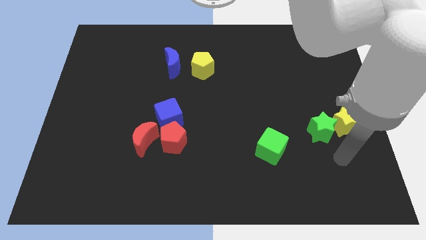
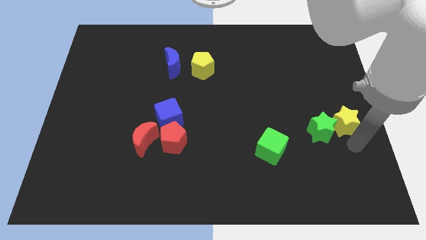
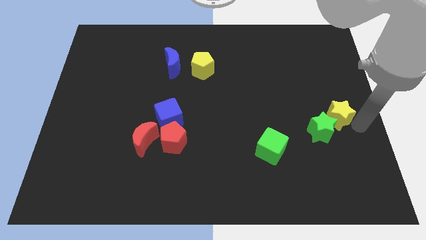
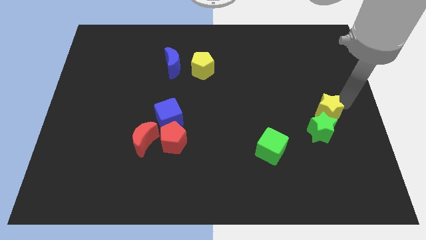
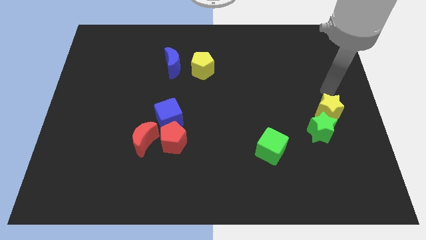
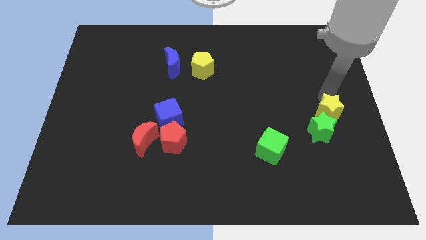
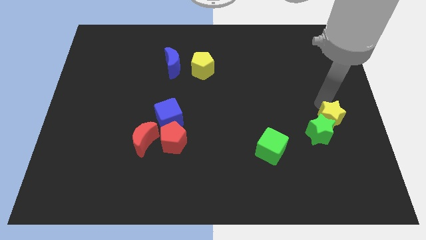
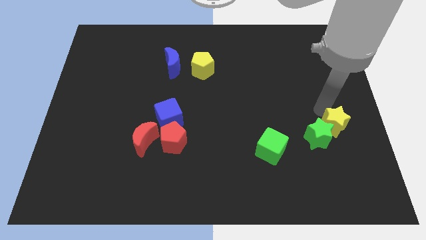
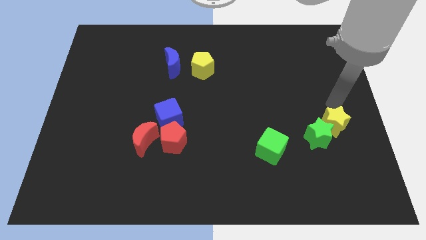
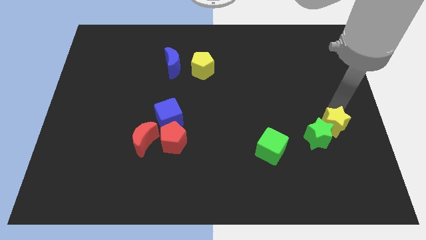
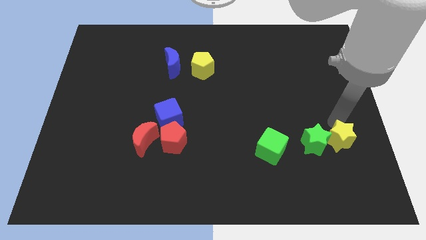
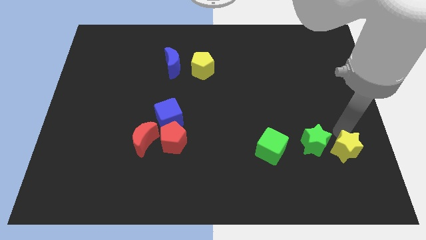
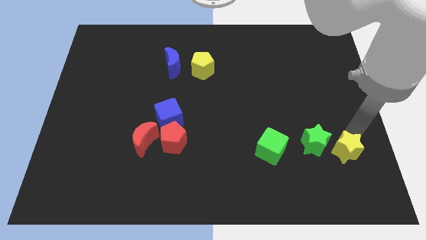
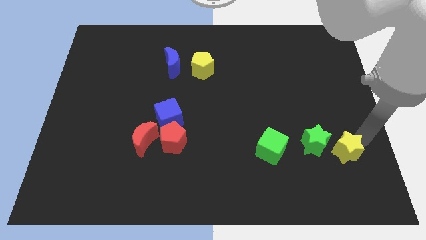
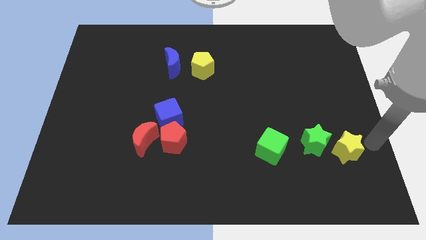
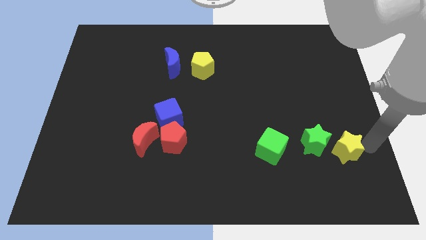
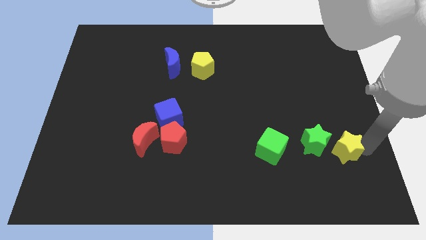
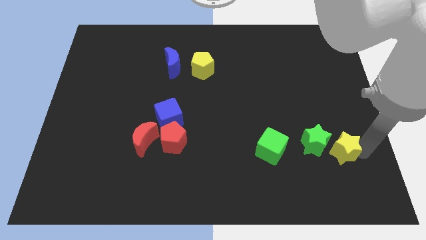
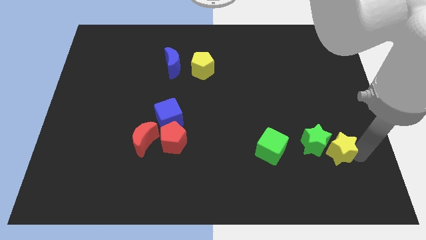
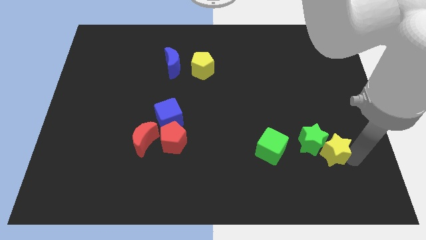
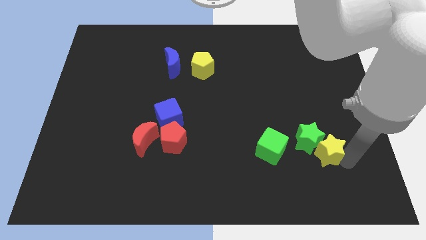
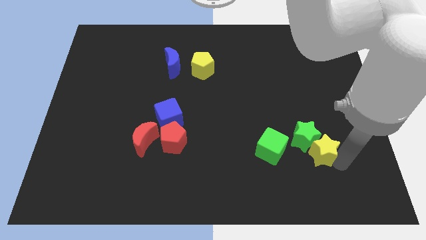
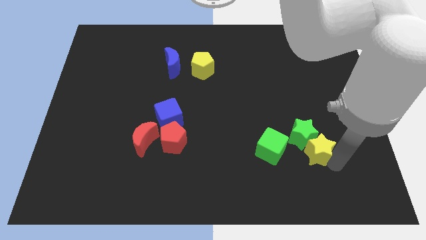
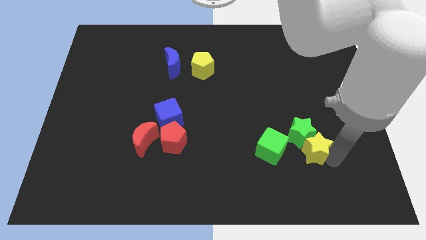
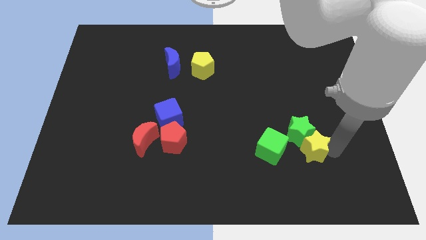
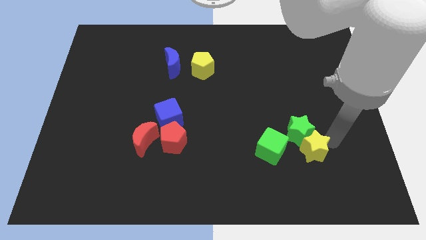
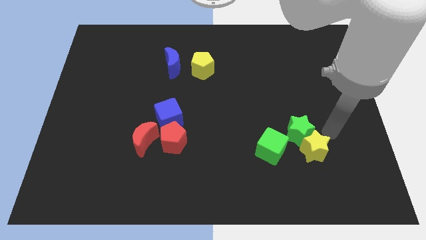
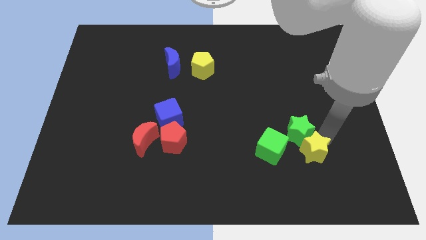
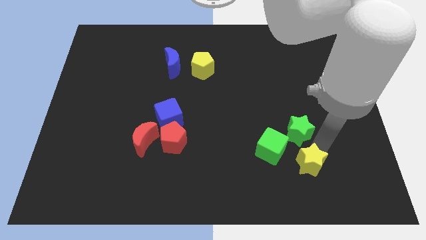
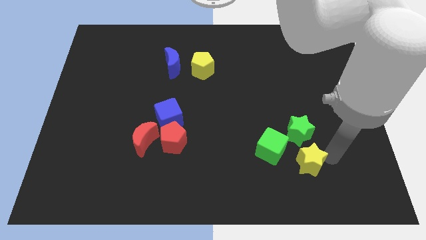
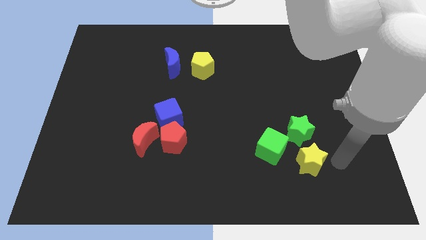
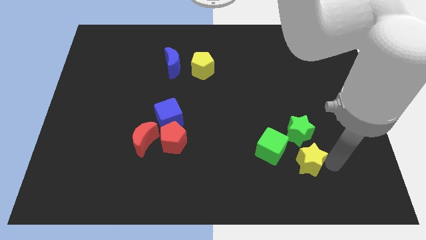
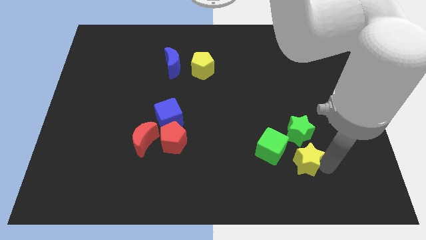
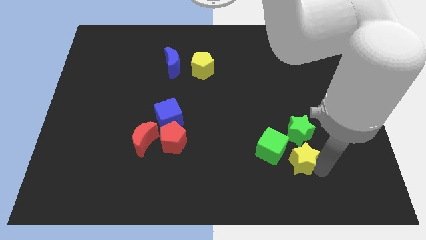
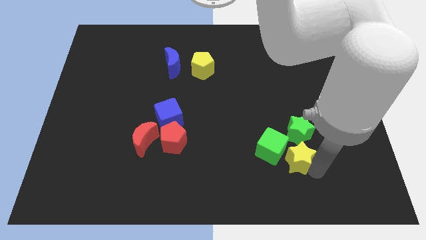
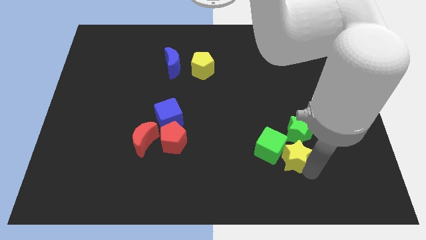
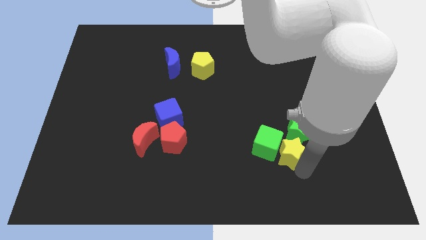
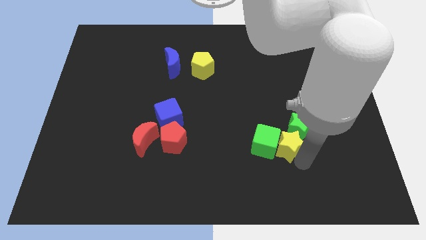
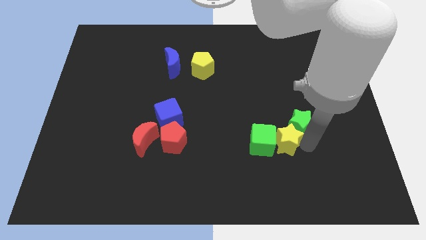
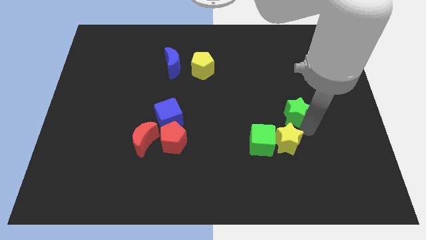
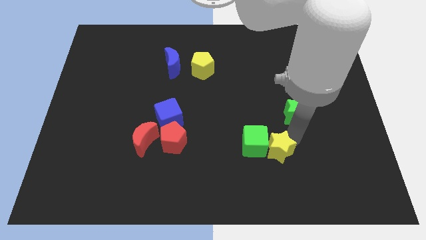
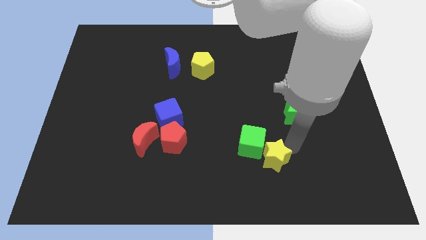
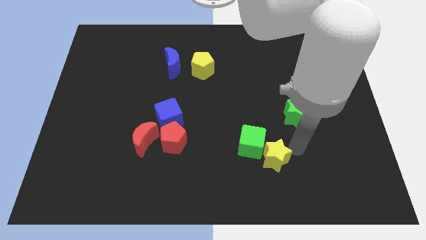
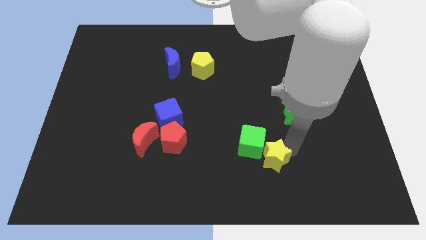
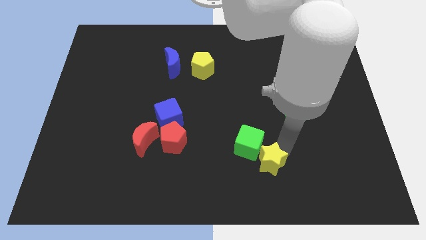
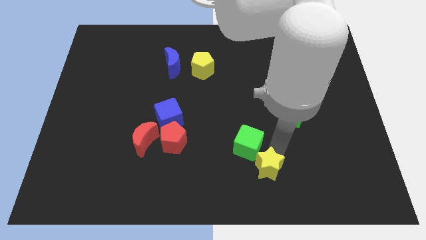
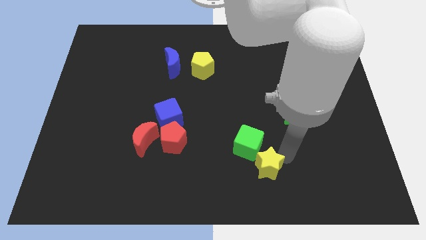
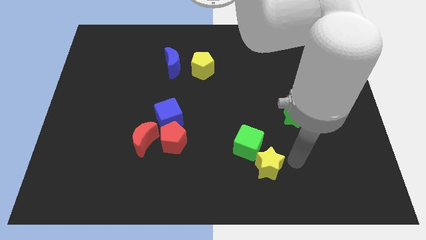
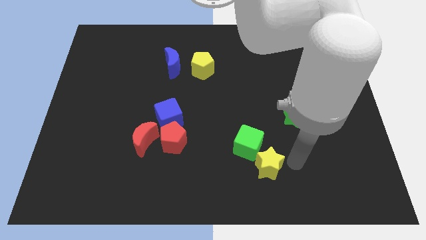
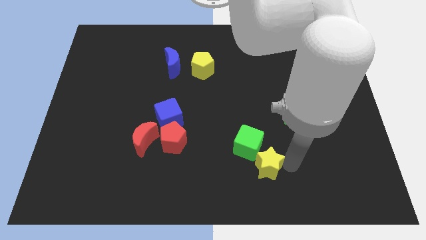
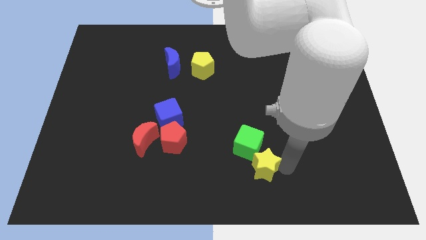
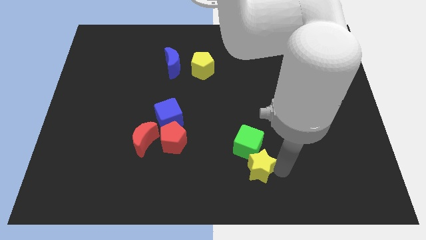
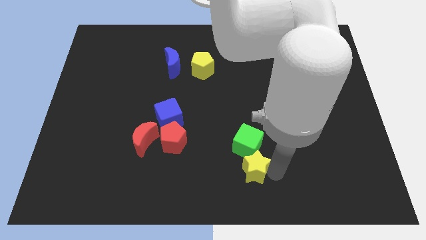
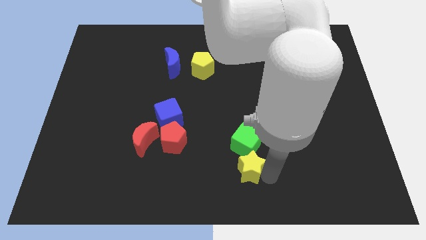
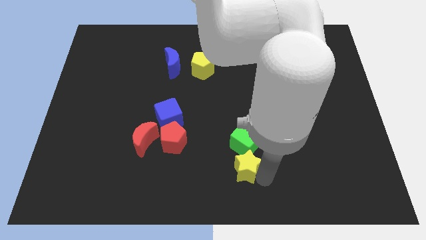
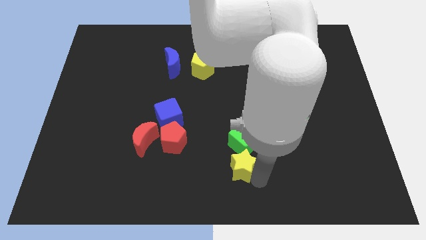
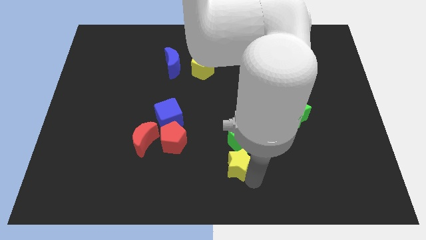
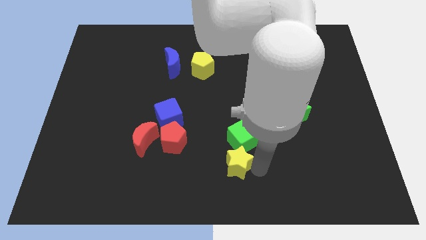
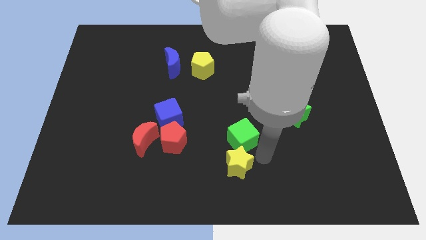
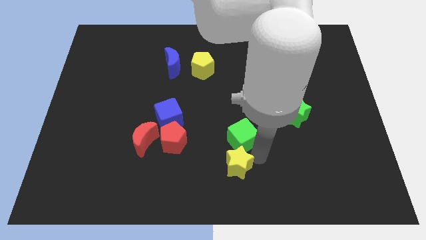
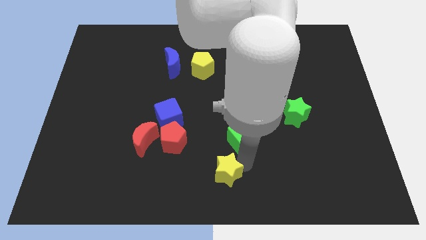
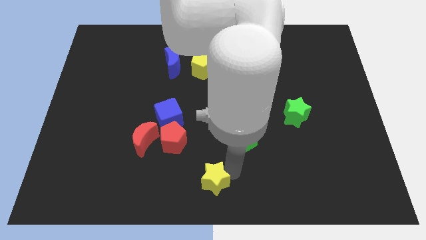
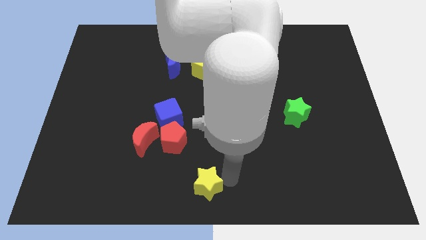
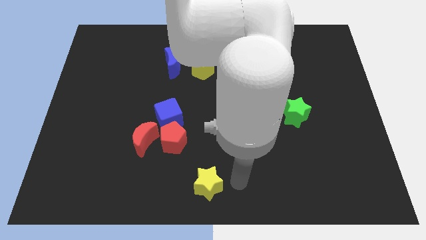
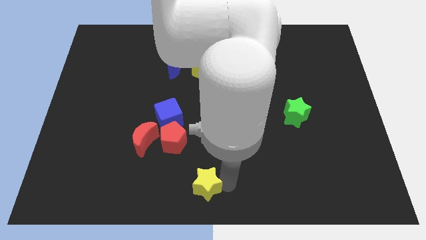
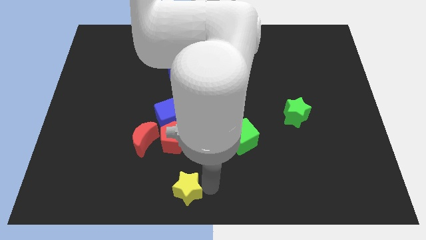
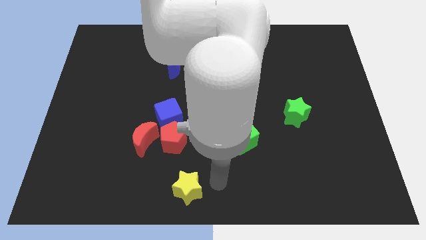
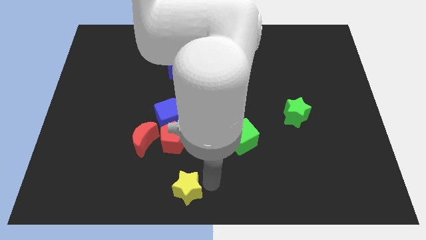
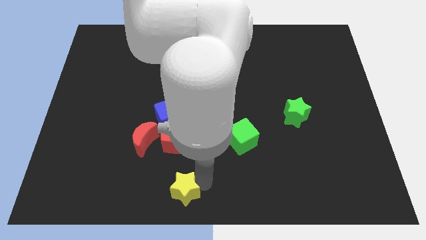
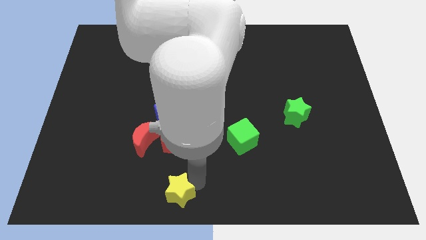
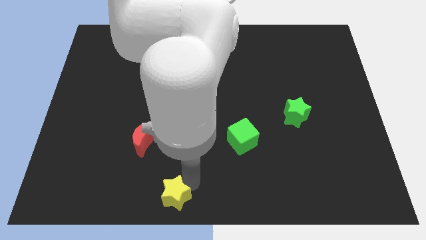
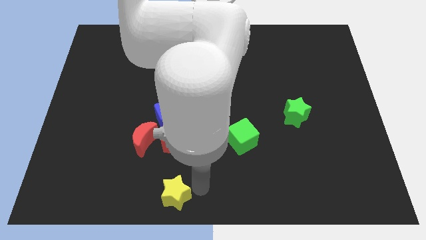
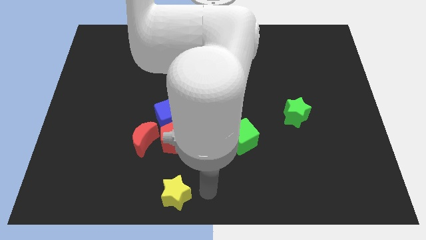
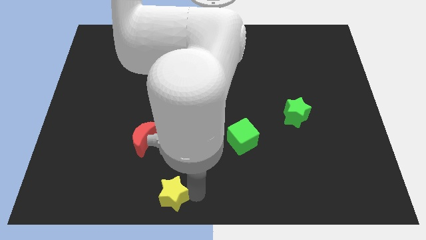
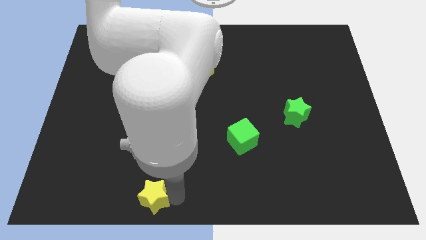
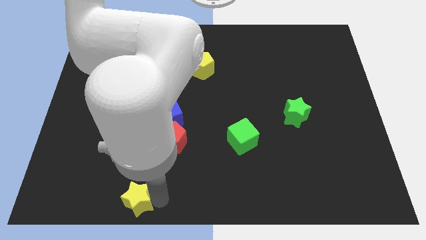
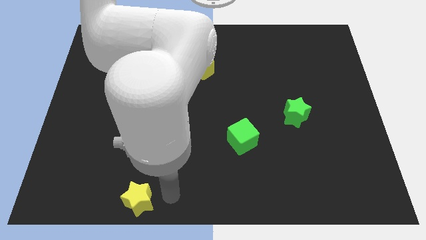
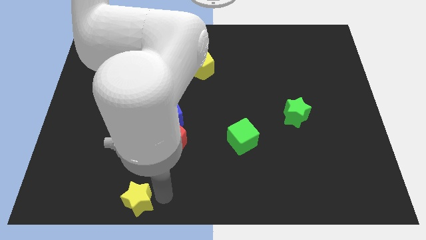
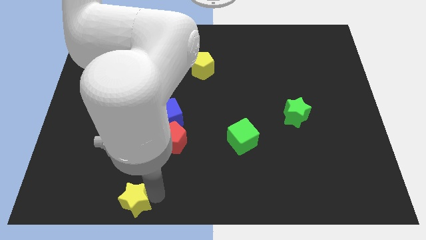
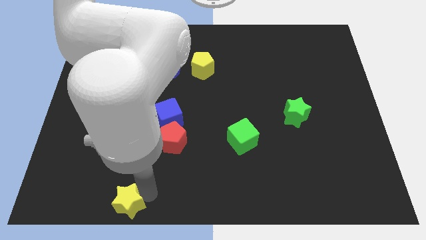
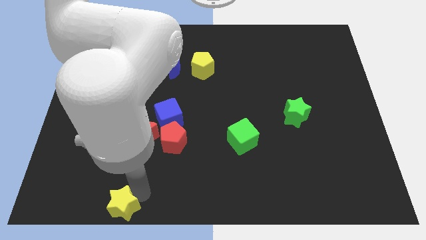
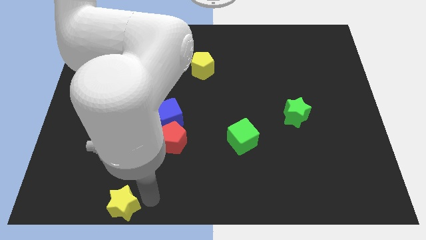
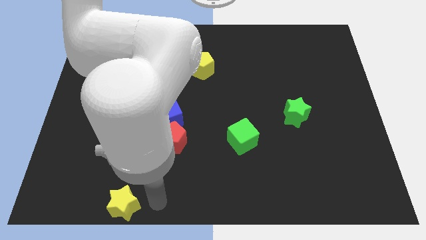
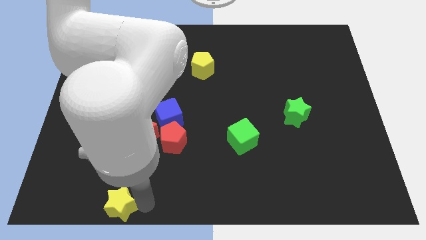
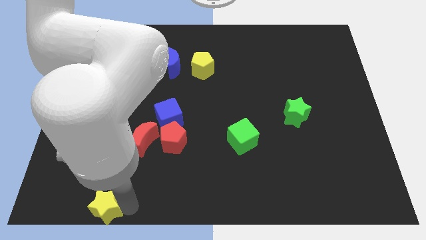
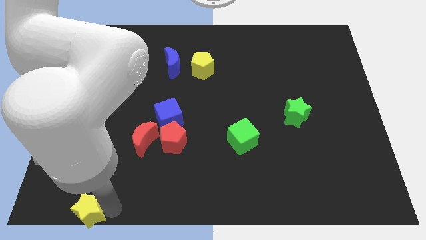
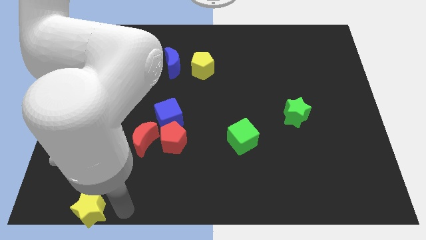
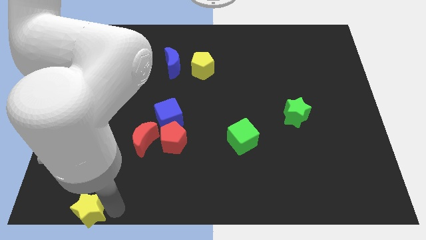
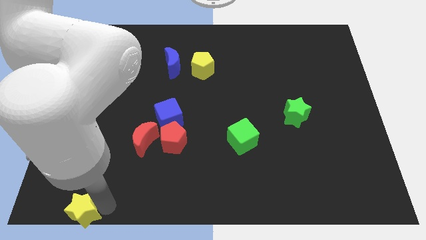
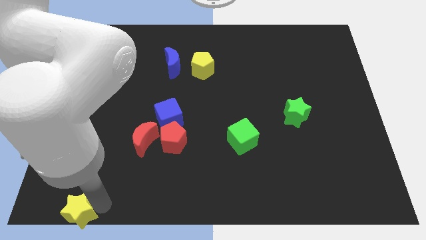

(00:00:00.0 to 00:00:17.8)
put the yellow star to the lower left corner
